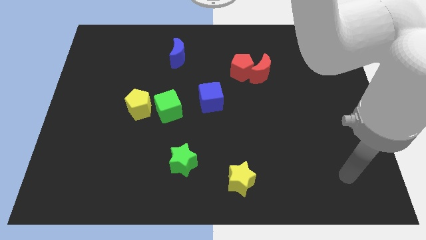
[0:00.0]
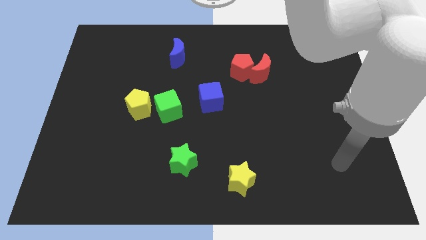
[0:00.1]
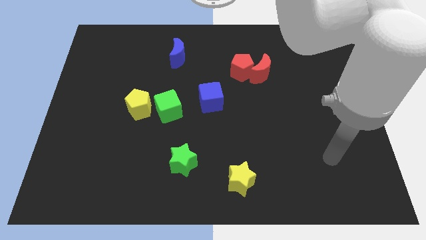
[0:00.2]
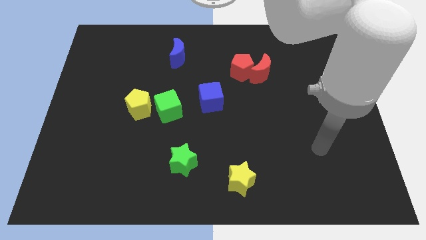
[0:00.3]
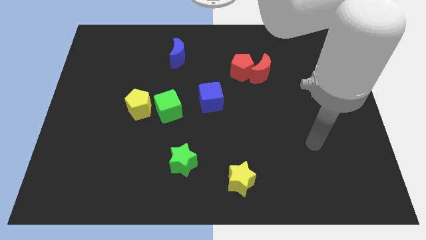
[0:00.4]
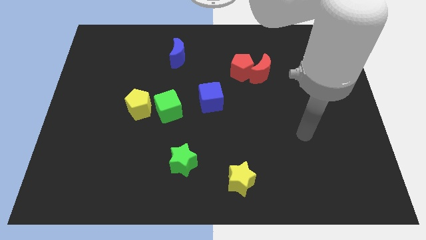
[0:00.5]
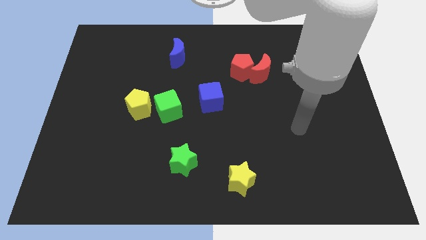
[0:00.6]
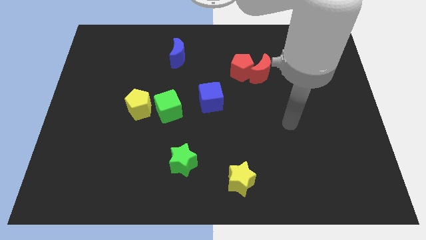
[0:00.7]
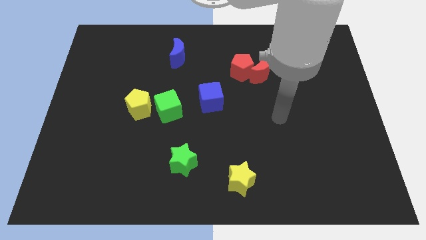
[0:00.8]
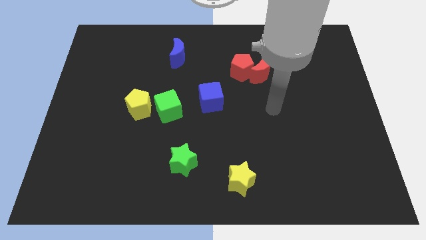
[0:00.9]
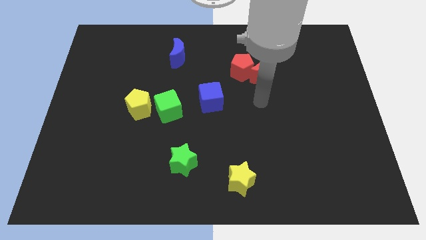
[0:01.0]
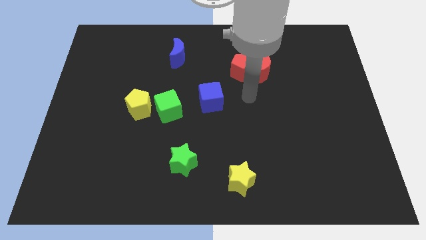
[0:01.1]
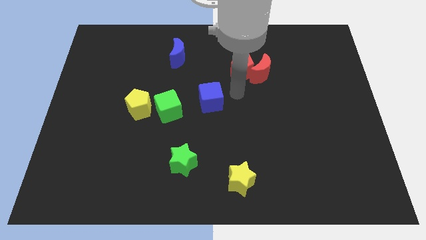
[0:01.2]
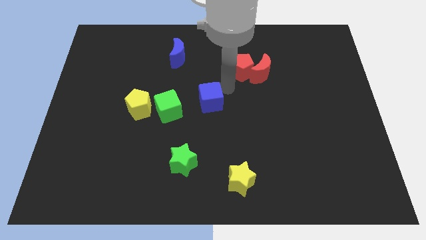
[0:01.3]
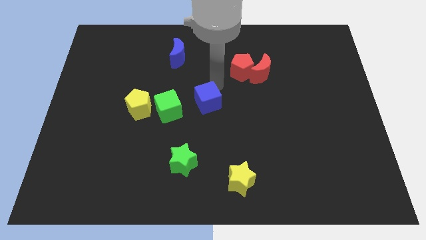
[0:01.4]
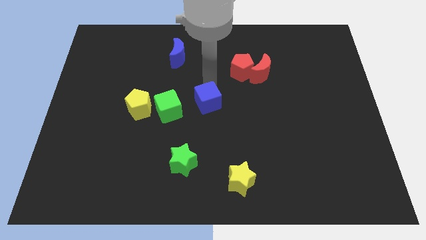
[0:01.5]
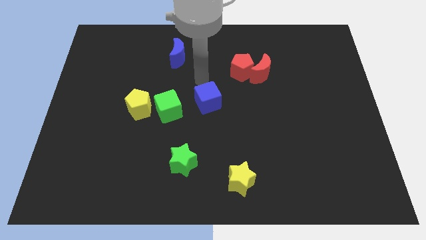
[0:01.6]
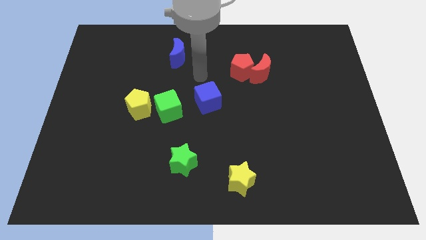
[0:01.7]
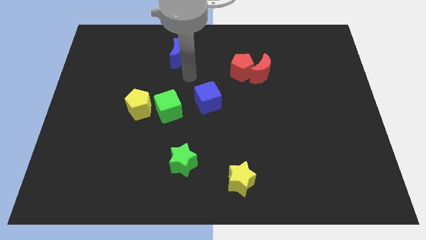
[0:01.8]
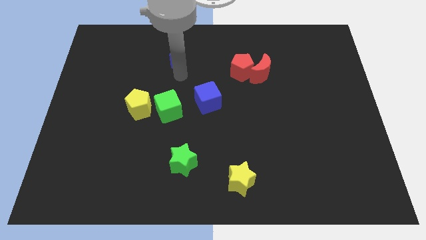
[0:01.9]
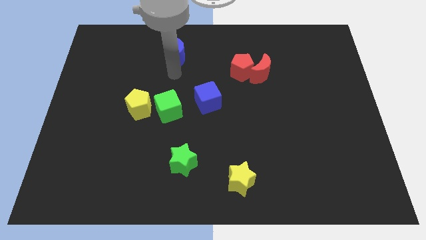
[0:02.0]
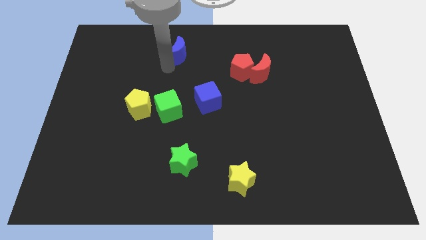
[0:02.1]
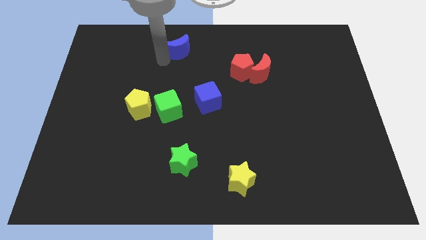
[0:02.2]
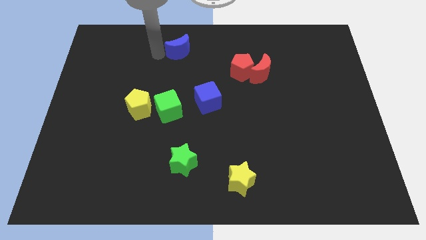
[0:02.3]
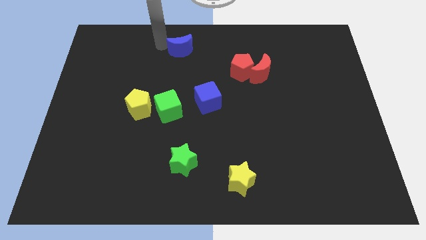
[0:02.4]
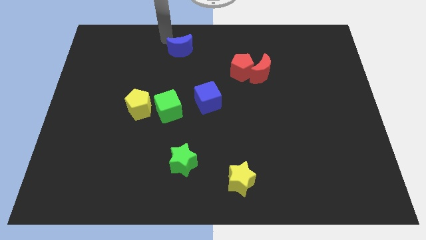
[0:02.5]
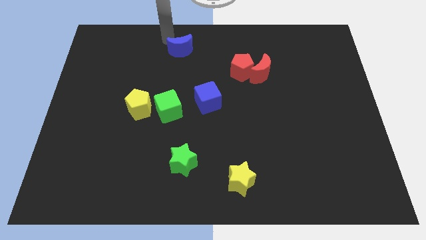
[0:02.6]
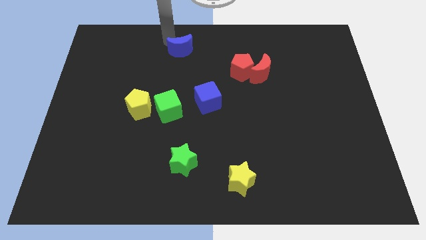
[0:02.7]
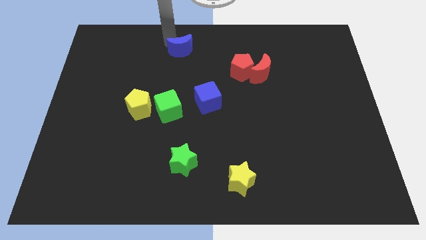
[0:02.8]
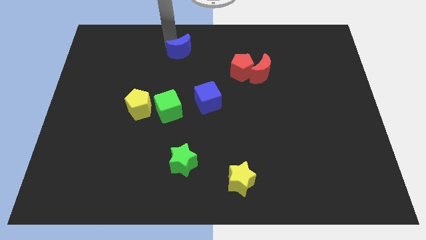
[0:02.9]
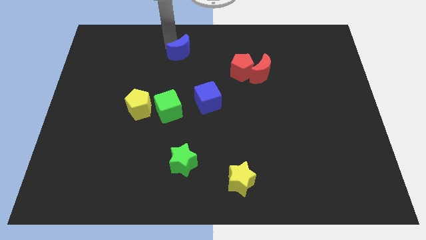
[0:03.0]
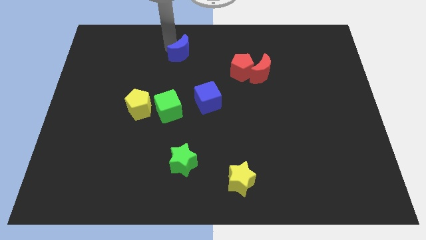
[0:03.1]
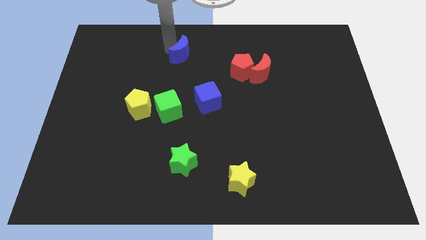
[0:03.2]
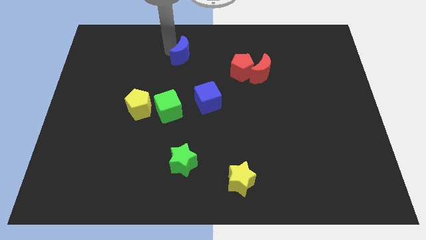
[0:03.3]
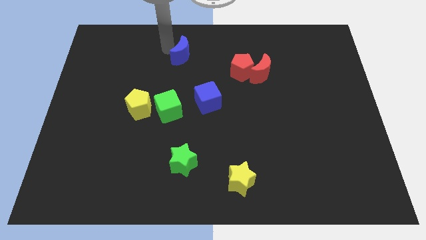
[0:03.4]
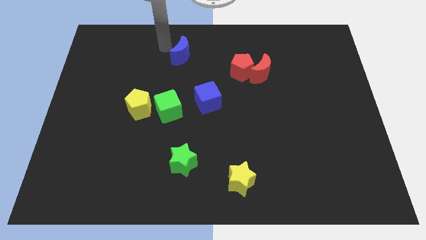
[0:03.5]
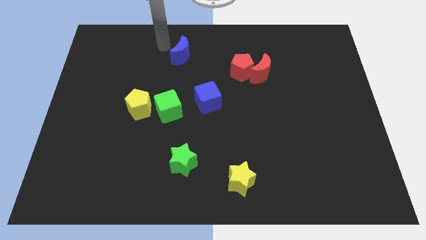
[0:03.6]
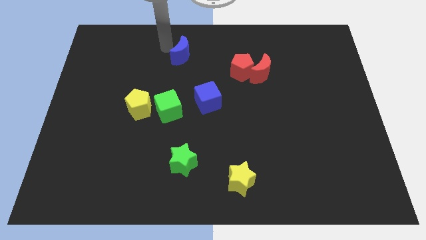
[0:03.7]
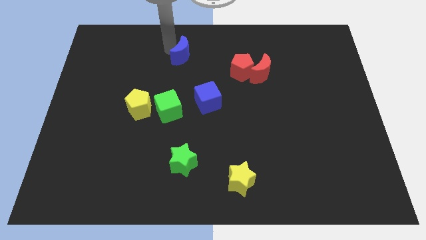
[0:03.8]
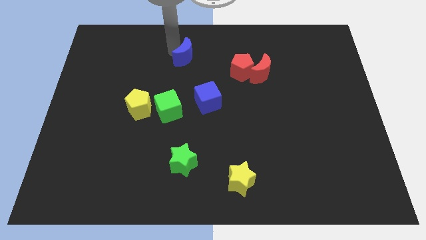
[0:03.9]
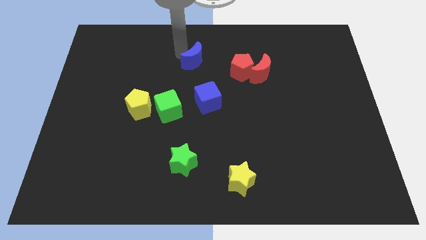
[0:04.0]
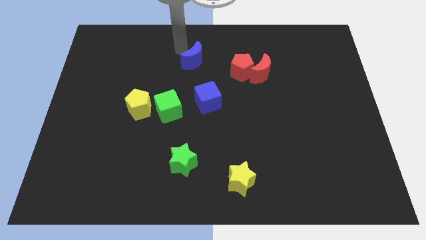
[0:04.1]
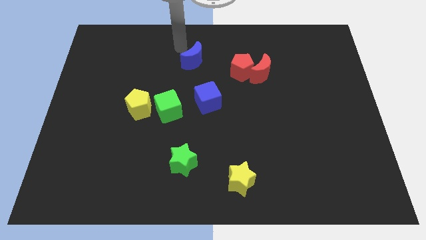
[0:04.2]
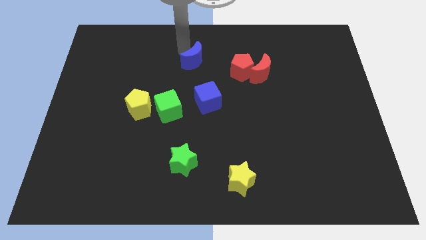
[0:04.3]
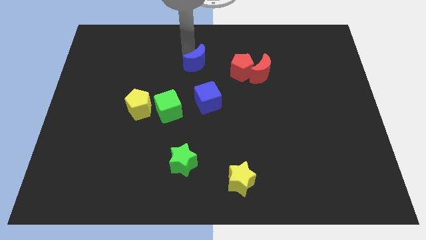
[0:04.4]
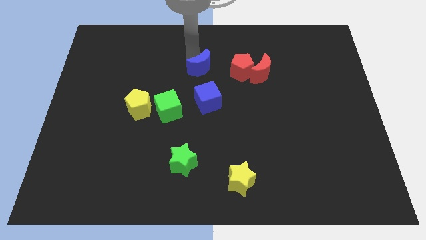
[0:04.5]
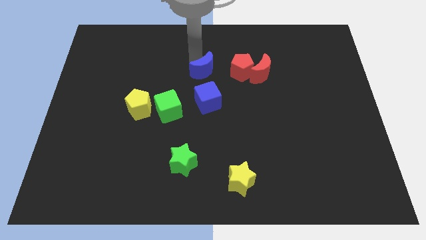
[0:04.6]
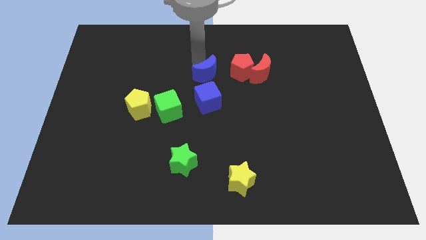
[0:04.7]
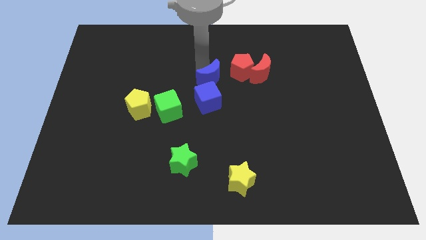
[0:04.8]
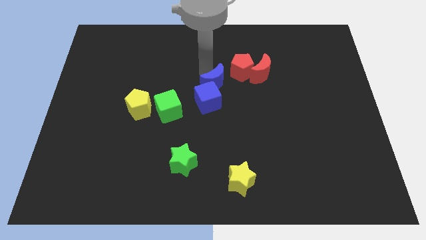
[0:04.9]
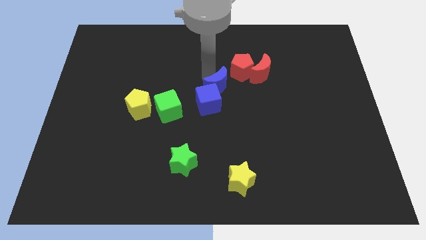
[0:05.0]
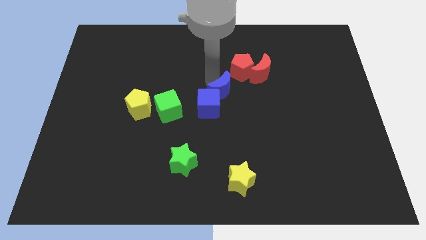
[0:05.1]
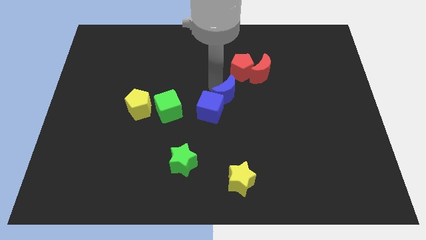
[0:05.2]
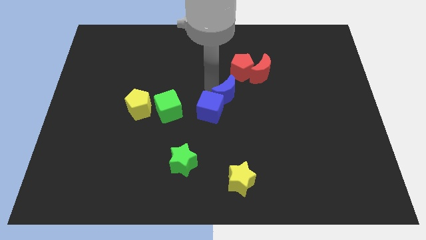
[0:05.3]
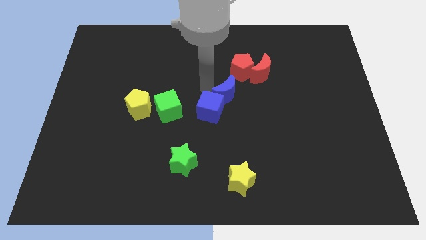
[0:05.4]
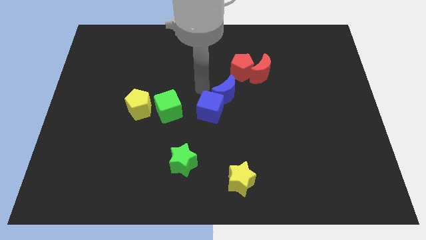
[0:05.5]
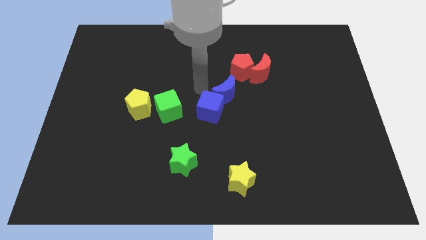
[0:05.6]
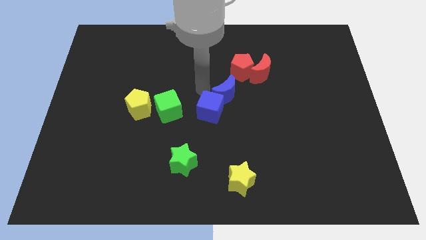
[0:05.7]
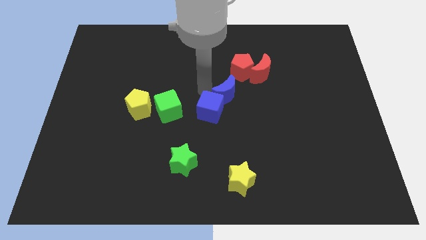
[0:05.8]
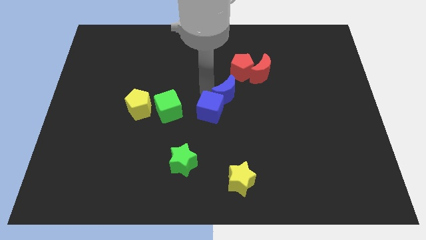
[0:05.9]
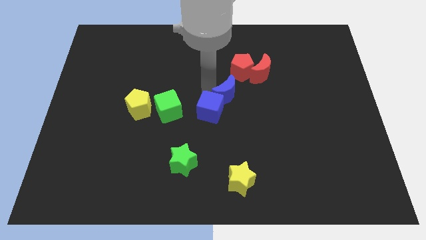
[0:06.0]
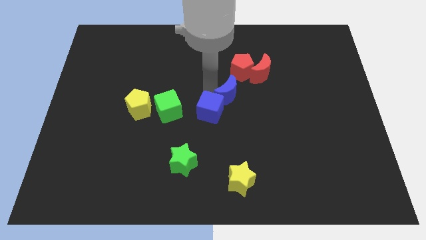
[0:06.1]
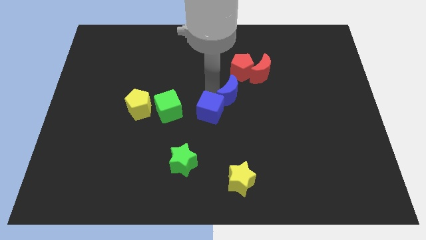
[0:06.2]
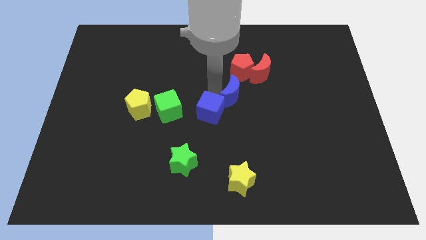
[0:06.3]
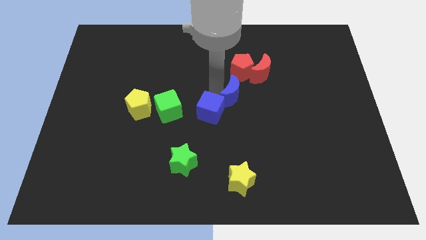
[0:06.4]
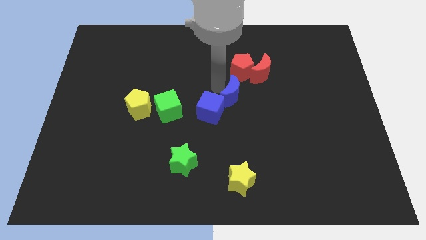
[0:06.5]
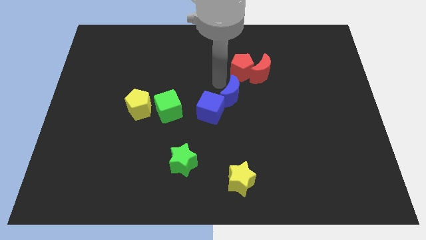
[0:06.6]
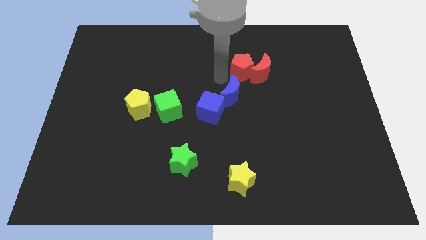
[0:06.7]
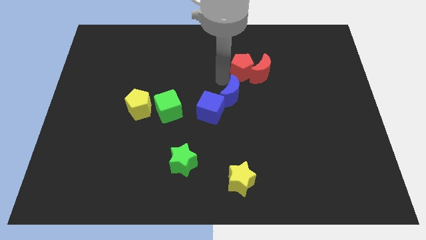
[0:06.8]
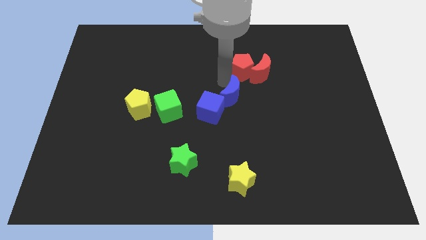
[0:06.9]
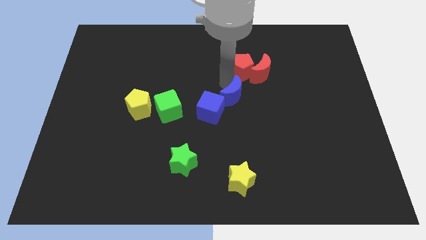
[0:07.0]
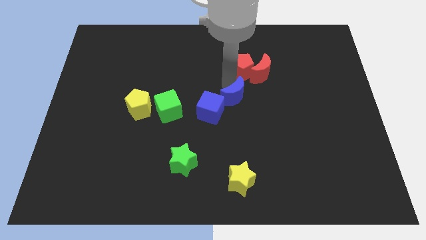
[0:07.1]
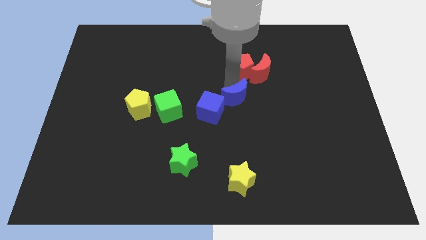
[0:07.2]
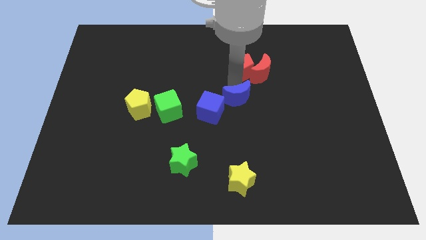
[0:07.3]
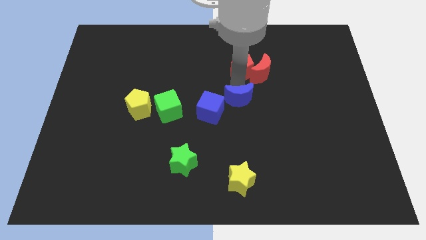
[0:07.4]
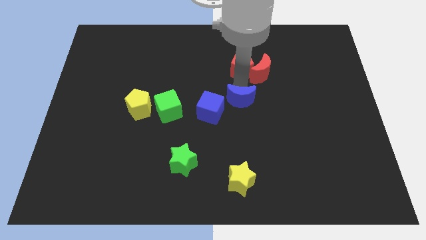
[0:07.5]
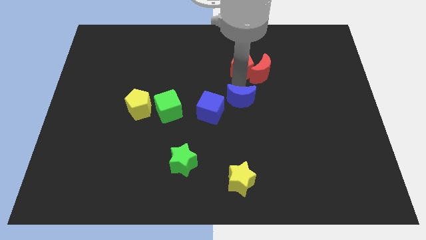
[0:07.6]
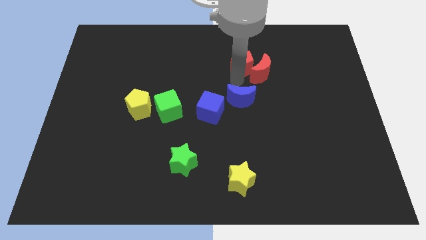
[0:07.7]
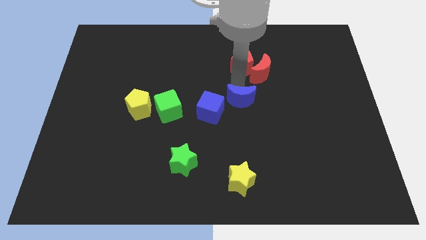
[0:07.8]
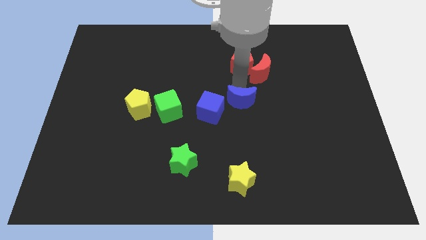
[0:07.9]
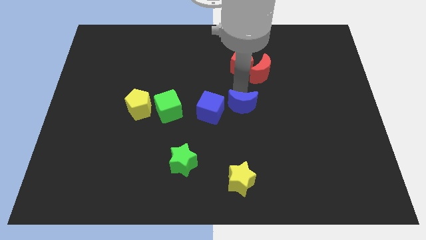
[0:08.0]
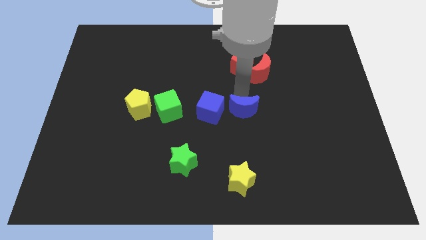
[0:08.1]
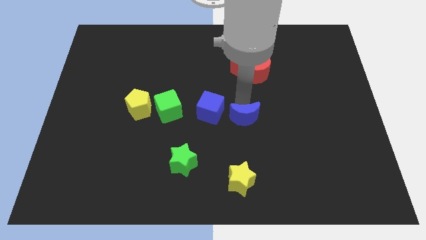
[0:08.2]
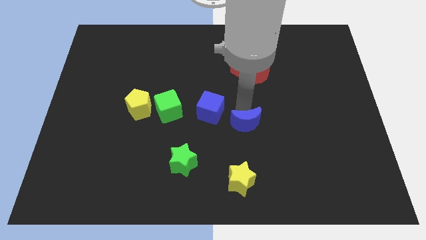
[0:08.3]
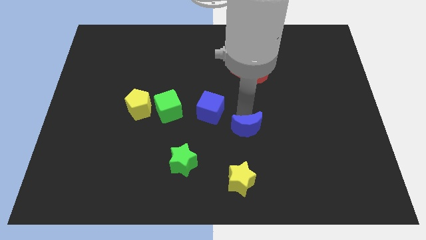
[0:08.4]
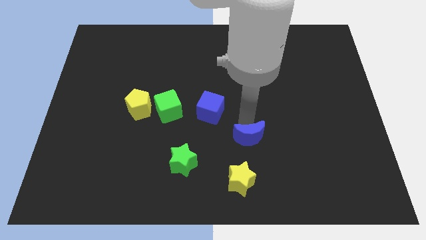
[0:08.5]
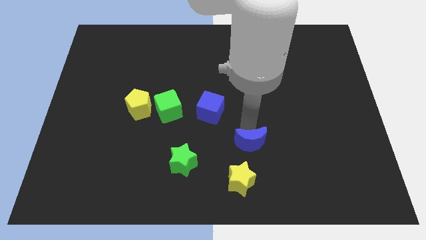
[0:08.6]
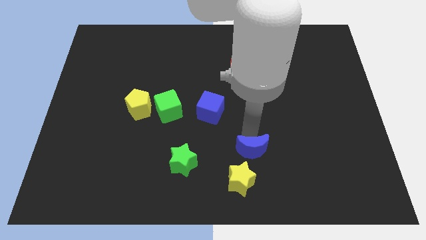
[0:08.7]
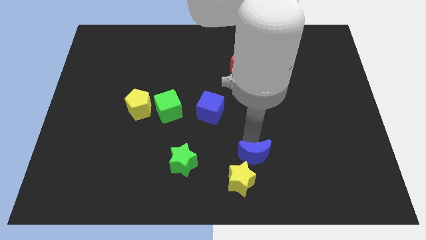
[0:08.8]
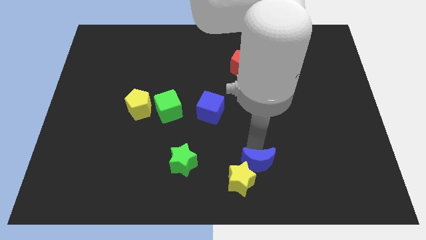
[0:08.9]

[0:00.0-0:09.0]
put the blue moon towards the yellow star
